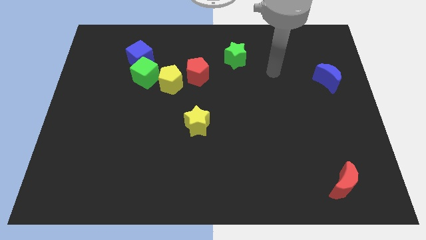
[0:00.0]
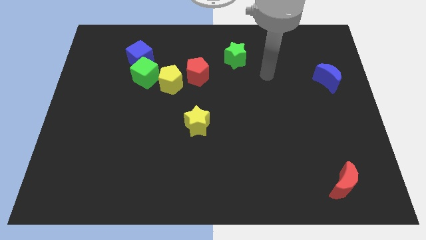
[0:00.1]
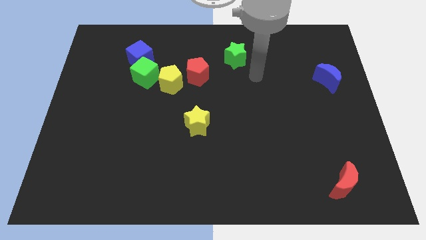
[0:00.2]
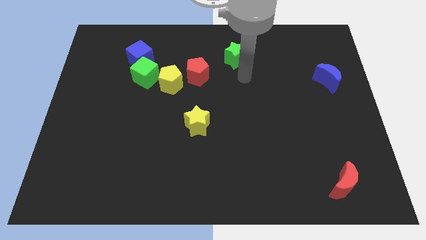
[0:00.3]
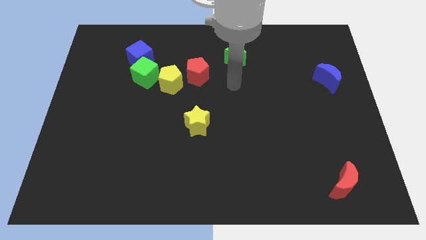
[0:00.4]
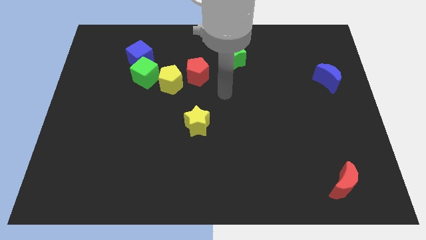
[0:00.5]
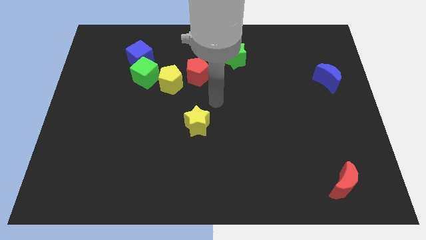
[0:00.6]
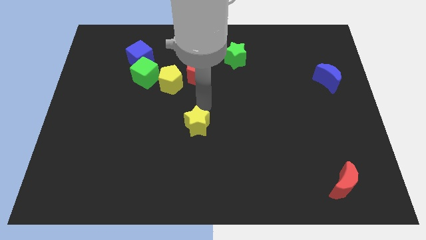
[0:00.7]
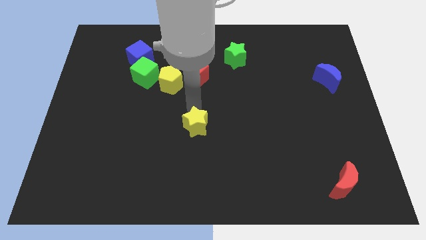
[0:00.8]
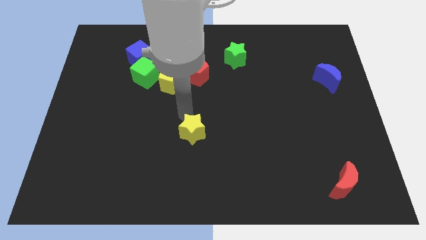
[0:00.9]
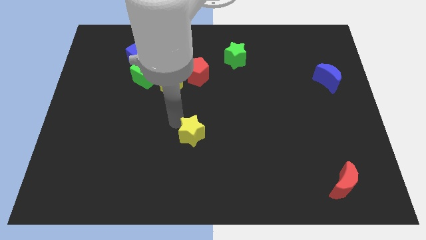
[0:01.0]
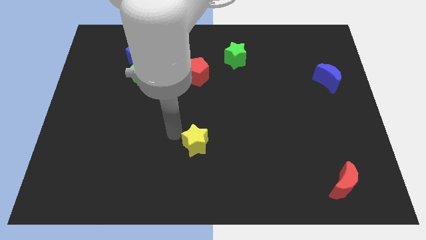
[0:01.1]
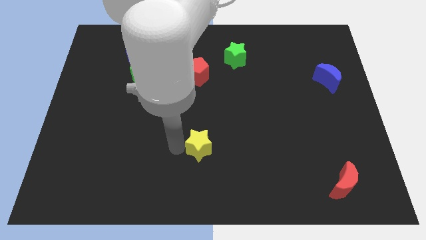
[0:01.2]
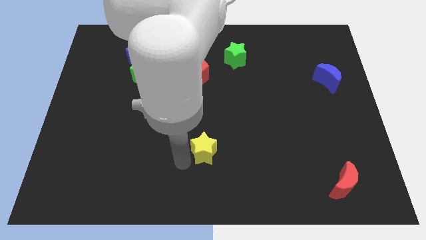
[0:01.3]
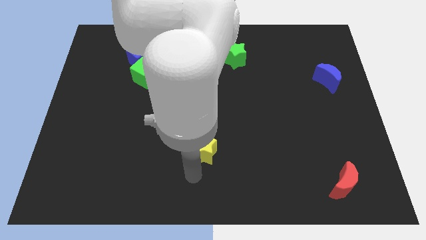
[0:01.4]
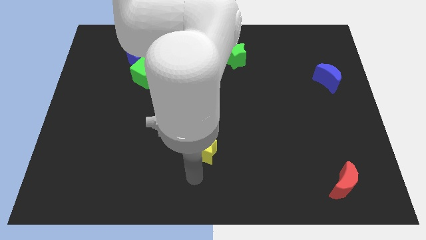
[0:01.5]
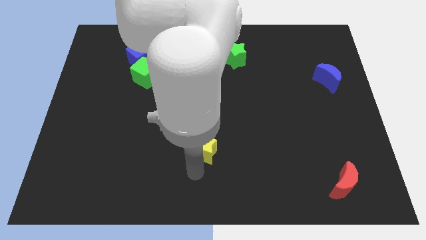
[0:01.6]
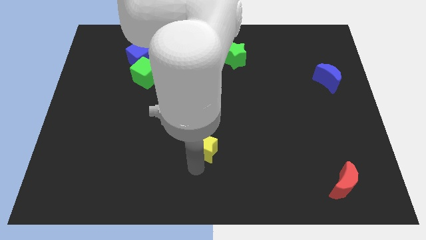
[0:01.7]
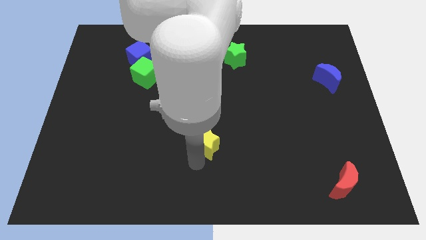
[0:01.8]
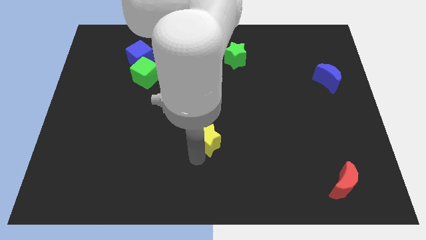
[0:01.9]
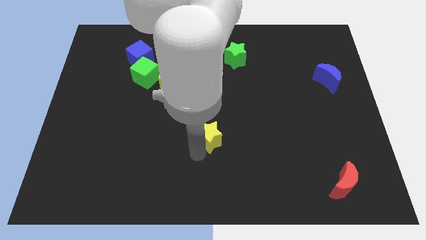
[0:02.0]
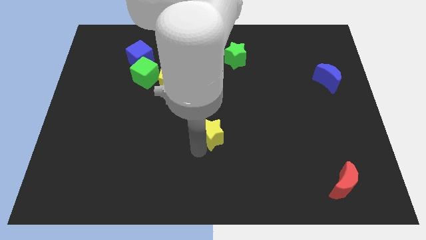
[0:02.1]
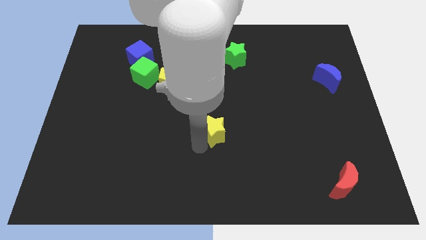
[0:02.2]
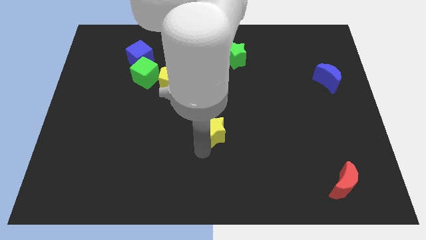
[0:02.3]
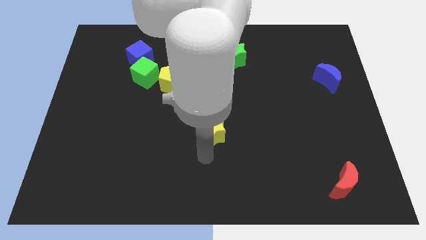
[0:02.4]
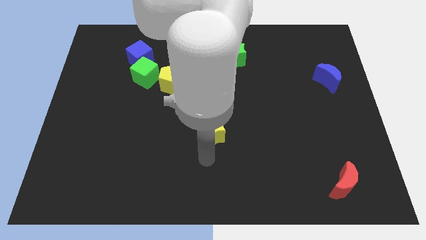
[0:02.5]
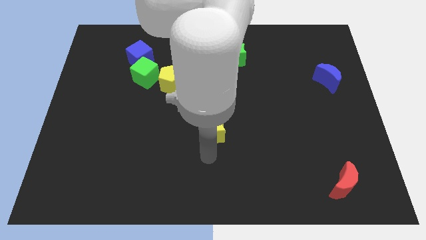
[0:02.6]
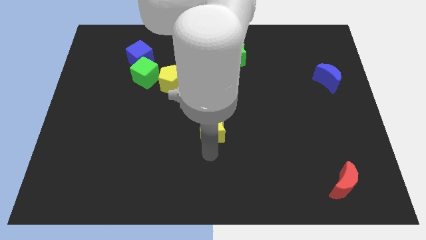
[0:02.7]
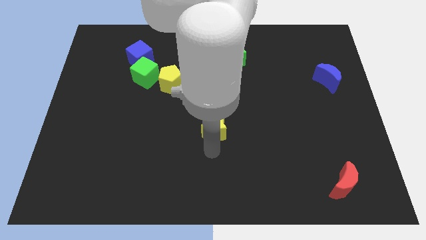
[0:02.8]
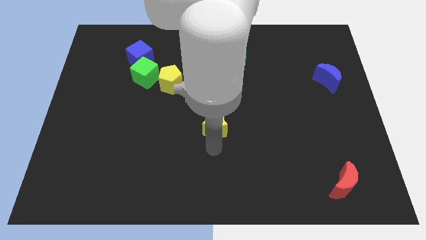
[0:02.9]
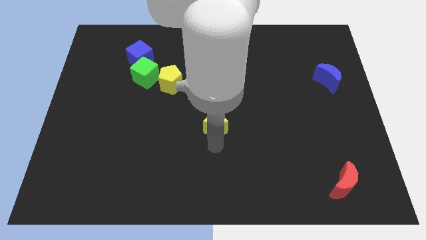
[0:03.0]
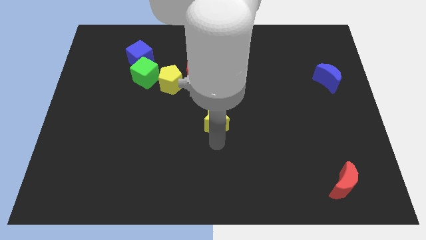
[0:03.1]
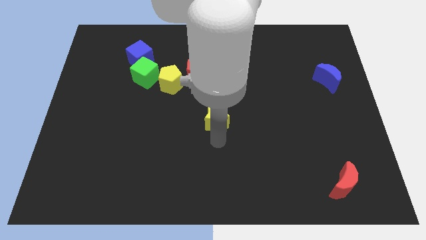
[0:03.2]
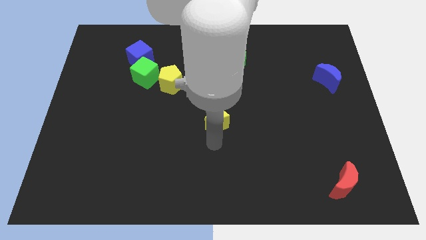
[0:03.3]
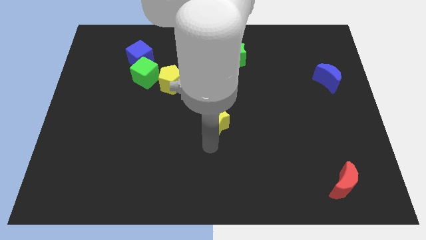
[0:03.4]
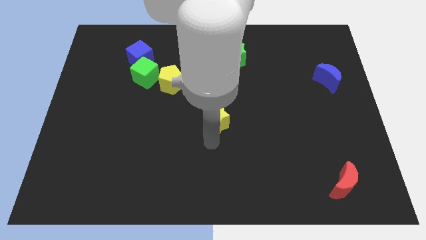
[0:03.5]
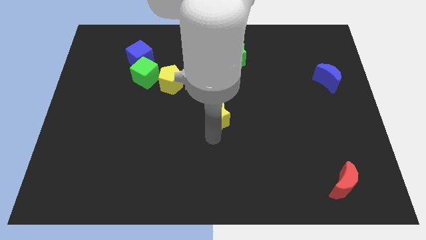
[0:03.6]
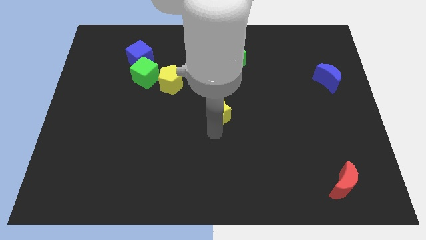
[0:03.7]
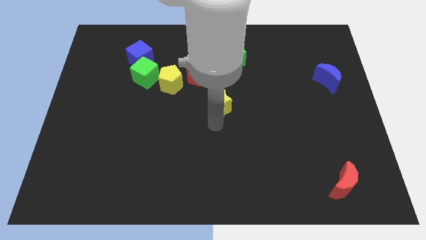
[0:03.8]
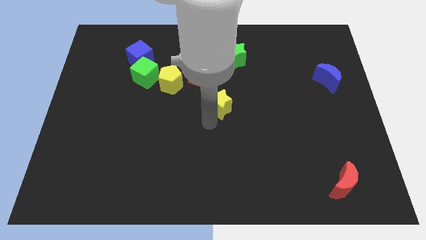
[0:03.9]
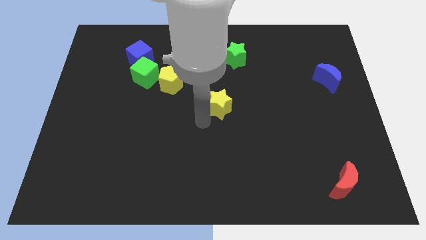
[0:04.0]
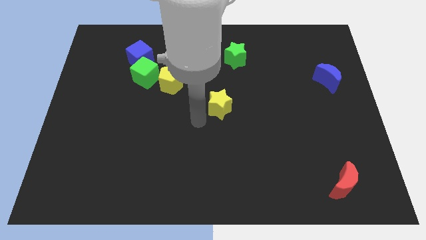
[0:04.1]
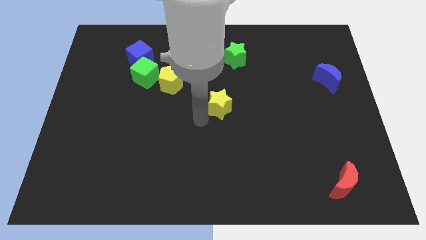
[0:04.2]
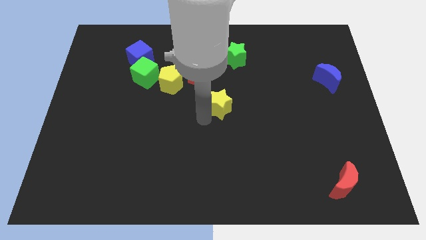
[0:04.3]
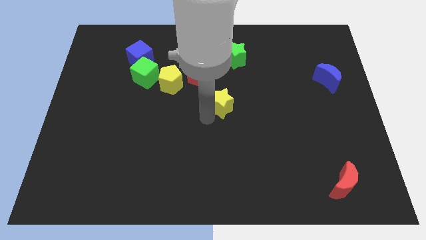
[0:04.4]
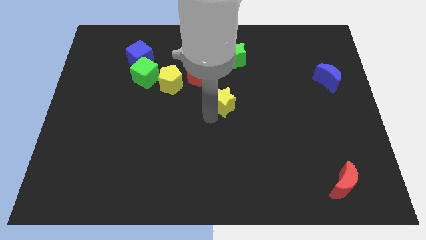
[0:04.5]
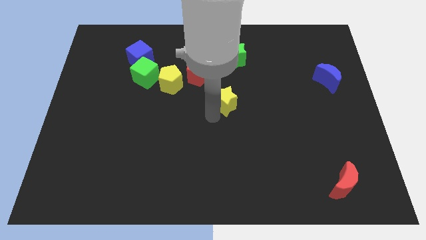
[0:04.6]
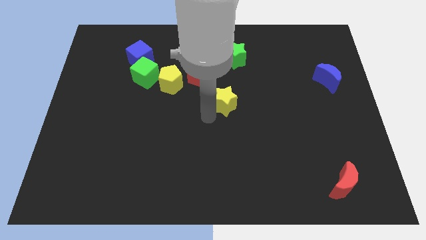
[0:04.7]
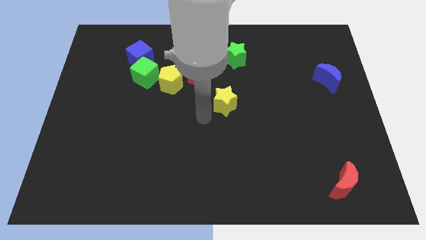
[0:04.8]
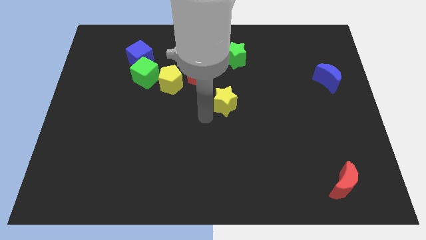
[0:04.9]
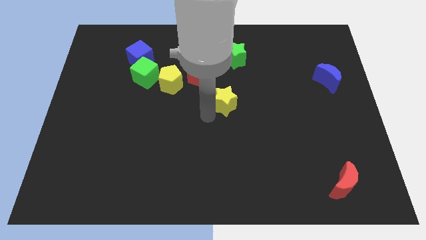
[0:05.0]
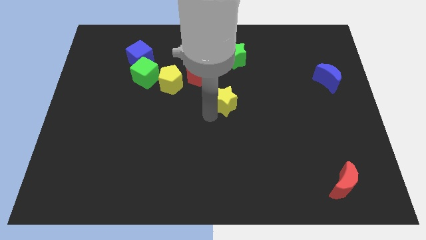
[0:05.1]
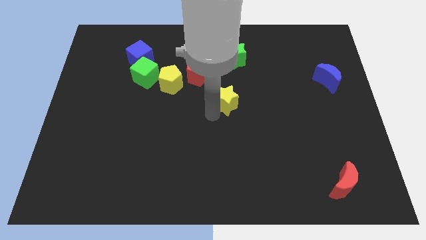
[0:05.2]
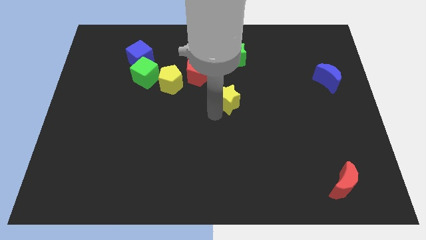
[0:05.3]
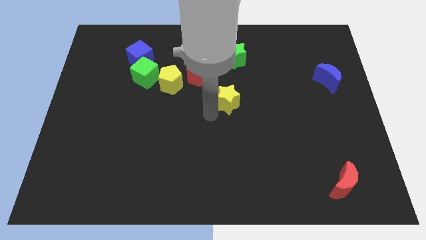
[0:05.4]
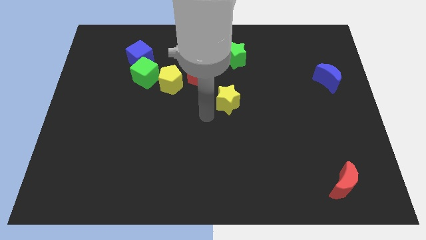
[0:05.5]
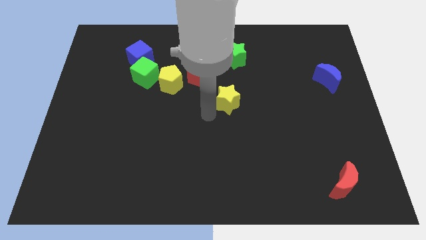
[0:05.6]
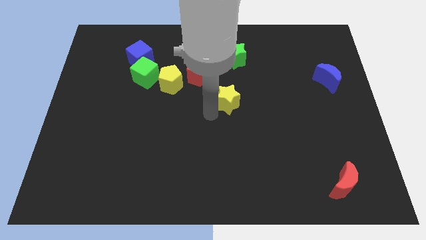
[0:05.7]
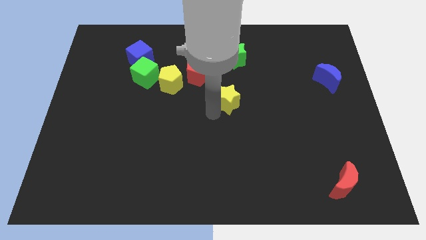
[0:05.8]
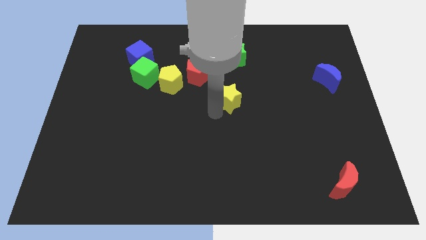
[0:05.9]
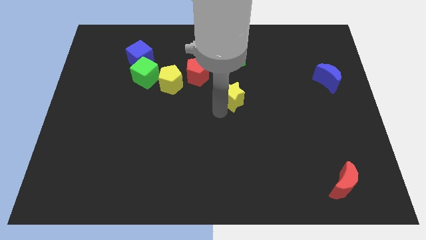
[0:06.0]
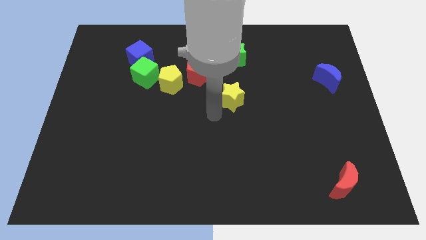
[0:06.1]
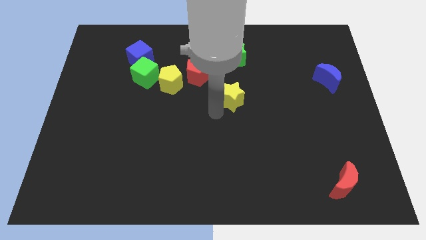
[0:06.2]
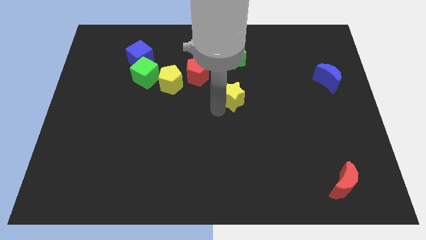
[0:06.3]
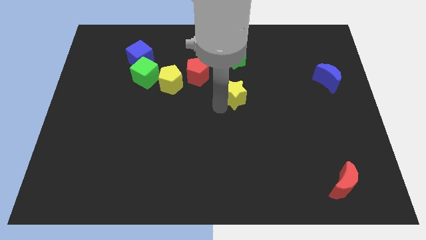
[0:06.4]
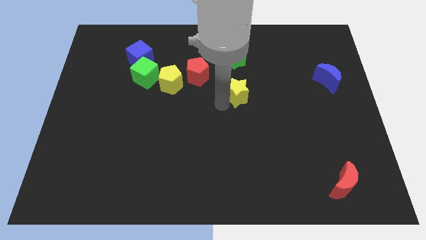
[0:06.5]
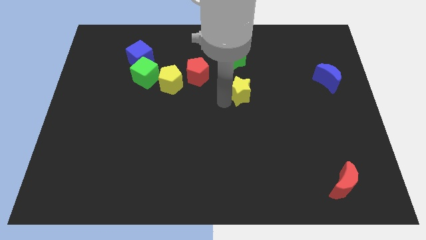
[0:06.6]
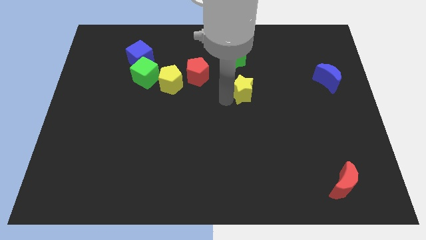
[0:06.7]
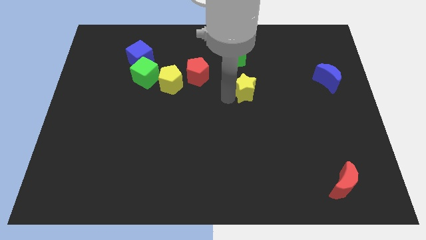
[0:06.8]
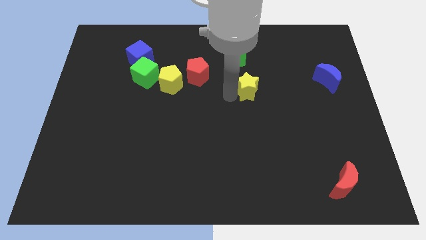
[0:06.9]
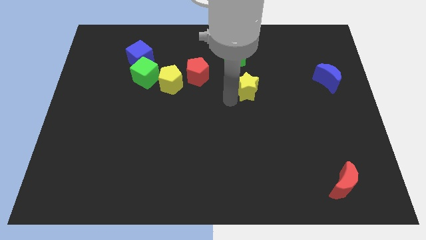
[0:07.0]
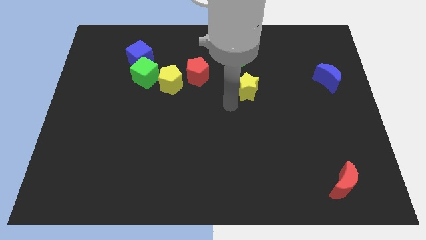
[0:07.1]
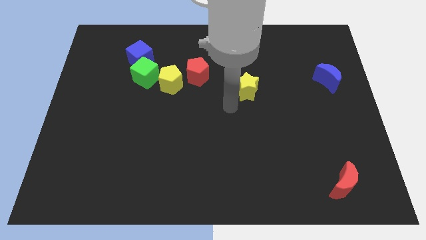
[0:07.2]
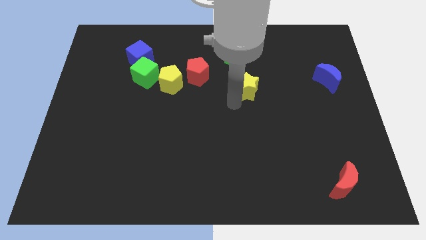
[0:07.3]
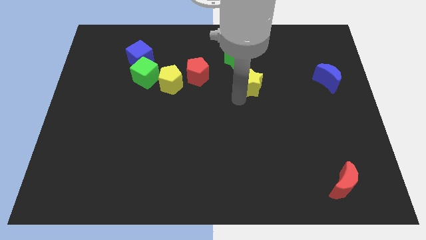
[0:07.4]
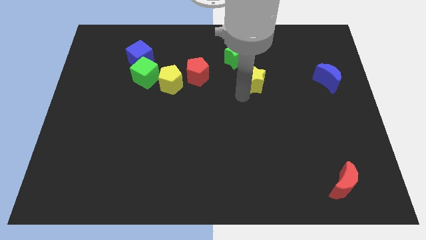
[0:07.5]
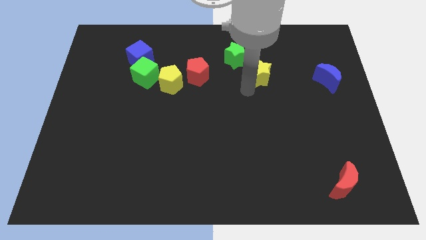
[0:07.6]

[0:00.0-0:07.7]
push the yellow star up and right diagonally

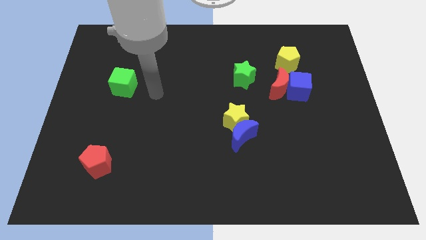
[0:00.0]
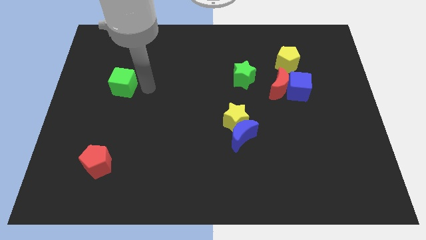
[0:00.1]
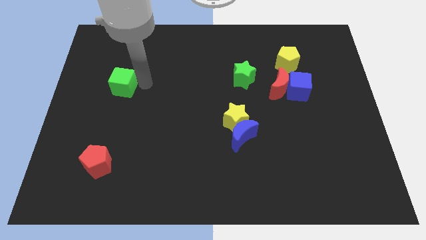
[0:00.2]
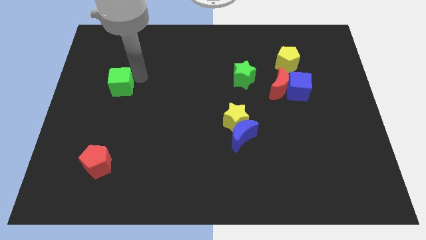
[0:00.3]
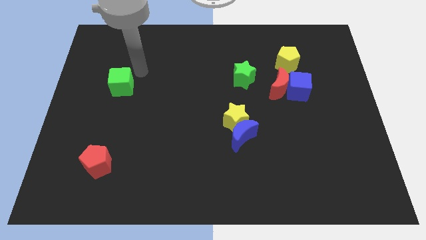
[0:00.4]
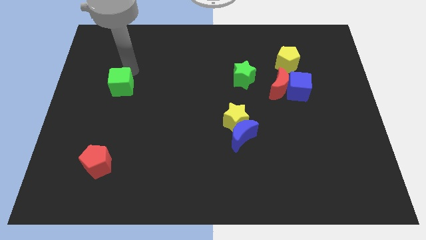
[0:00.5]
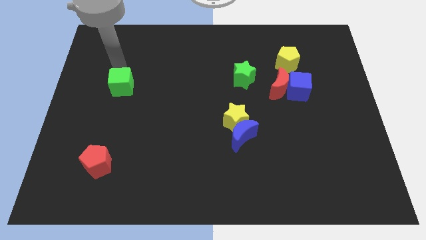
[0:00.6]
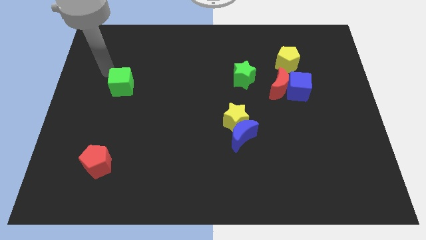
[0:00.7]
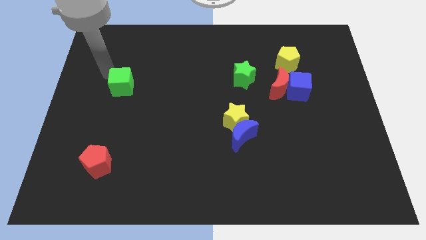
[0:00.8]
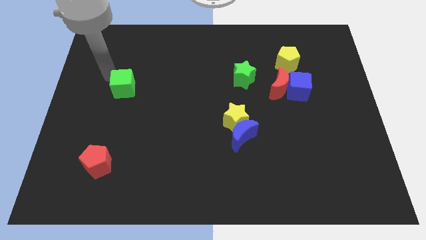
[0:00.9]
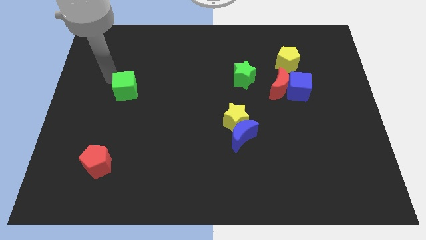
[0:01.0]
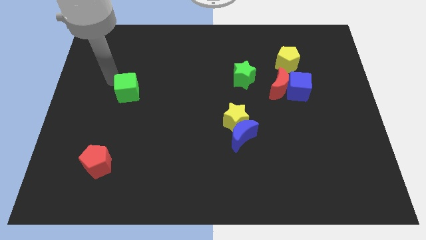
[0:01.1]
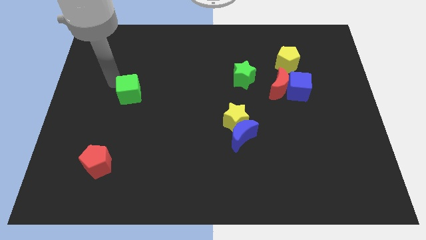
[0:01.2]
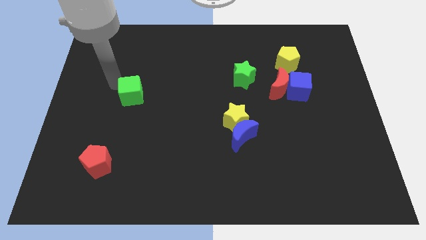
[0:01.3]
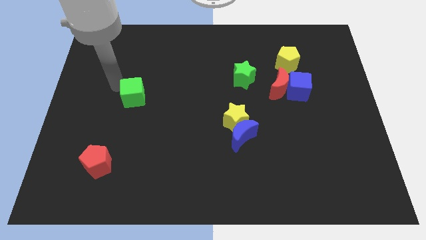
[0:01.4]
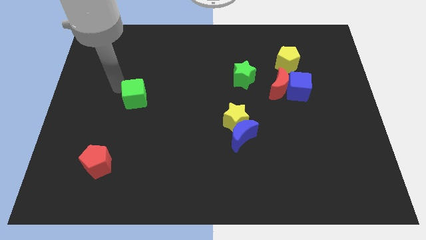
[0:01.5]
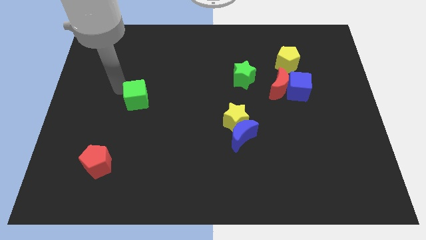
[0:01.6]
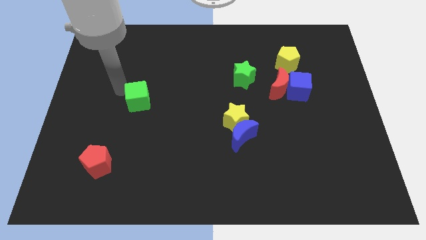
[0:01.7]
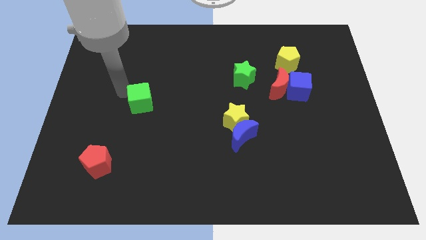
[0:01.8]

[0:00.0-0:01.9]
move the green cube downwards and right diagonally somewhat
